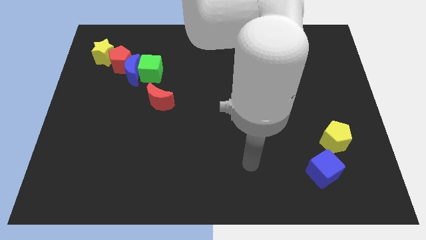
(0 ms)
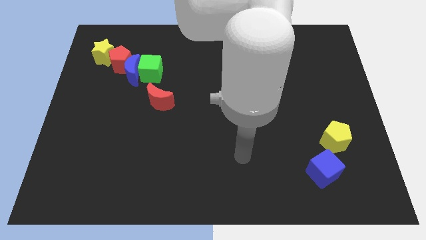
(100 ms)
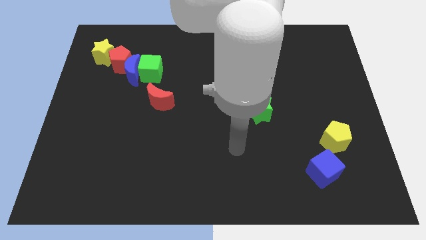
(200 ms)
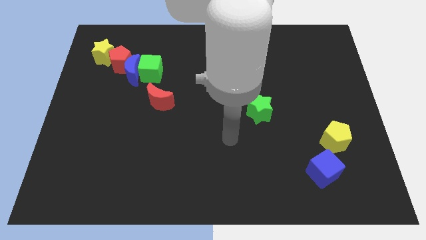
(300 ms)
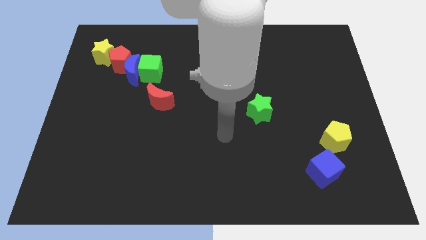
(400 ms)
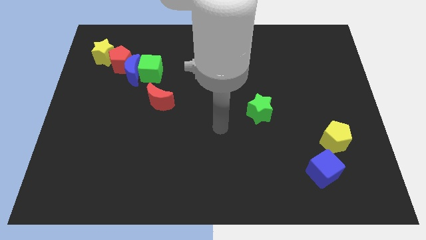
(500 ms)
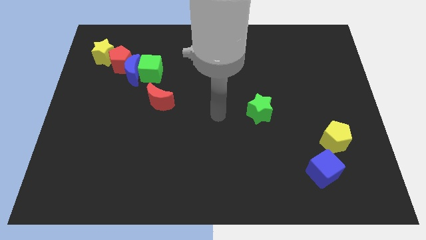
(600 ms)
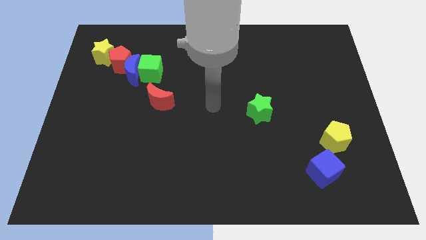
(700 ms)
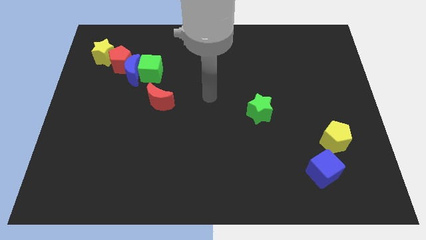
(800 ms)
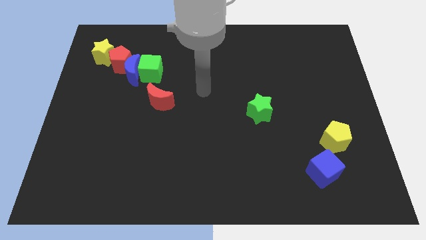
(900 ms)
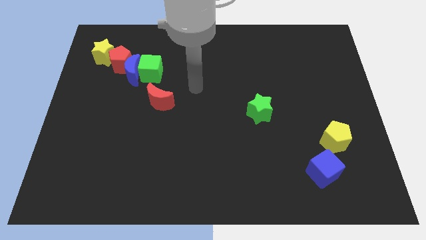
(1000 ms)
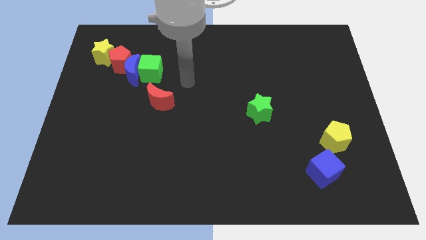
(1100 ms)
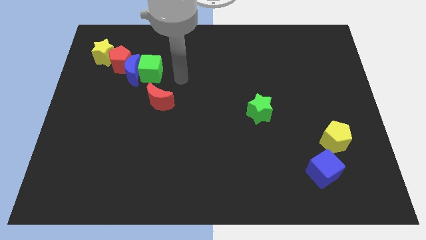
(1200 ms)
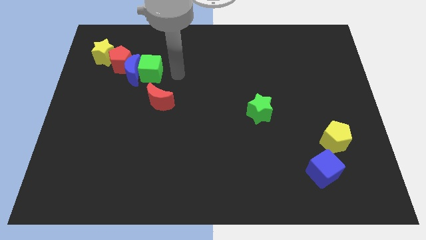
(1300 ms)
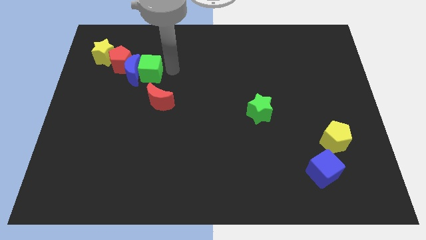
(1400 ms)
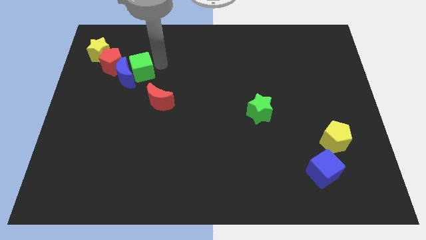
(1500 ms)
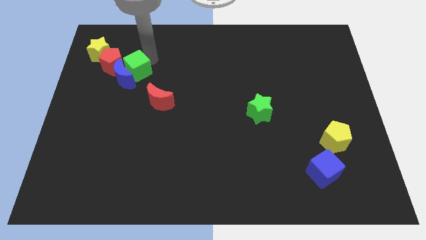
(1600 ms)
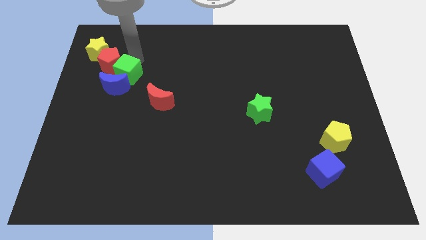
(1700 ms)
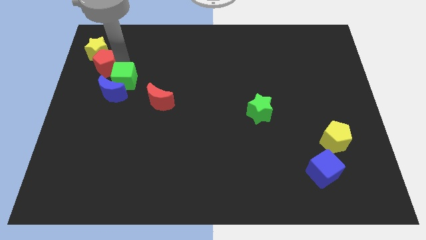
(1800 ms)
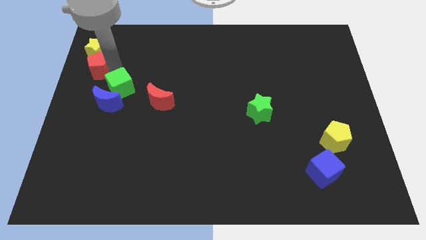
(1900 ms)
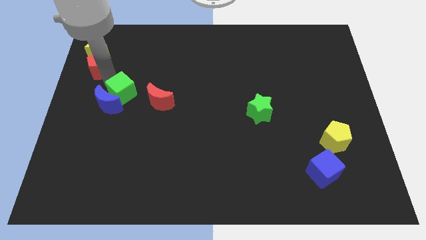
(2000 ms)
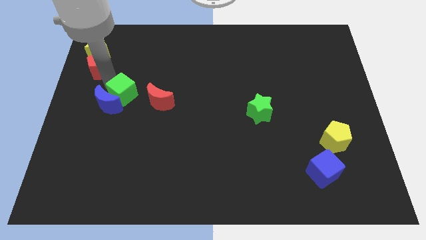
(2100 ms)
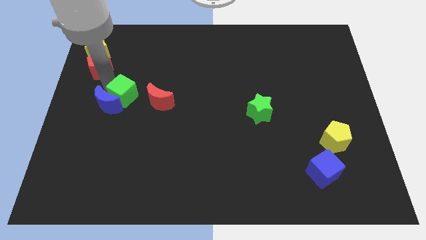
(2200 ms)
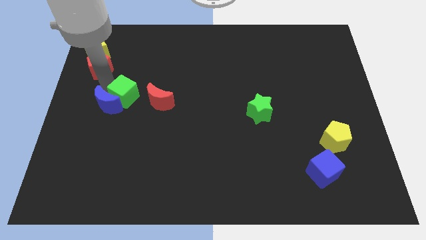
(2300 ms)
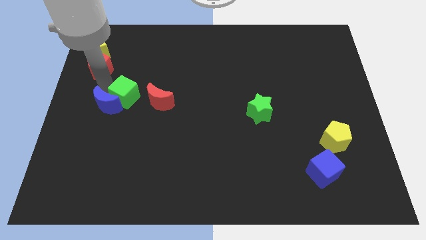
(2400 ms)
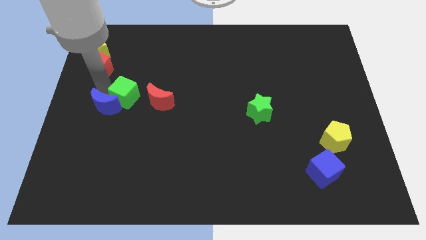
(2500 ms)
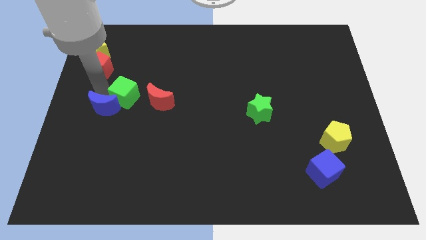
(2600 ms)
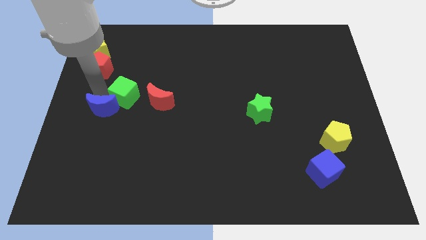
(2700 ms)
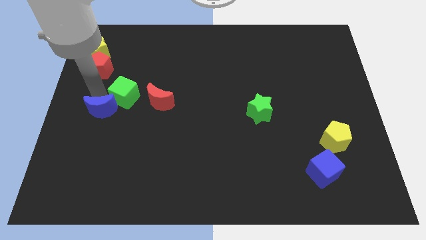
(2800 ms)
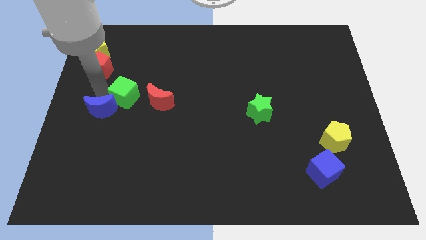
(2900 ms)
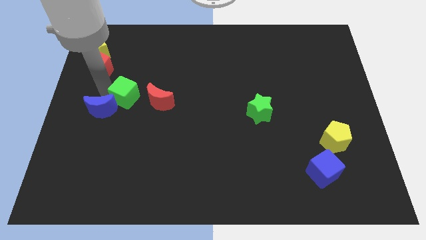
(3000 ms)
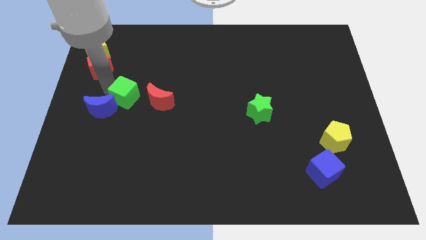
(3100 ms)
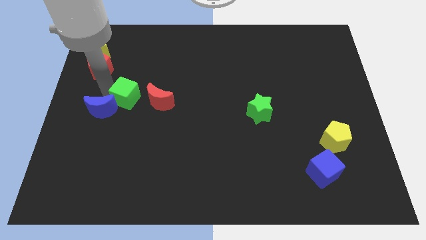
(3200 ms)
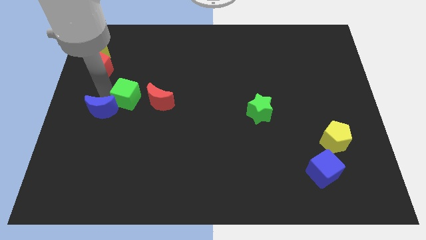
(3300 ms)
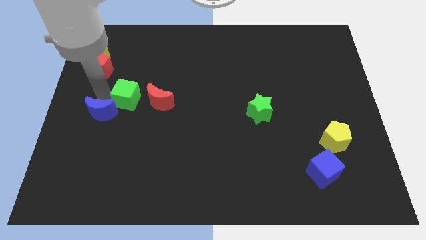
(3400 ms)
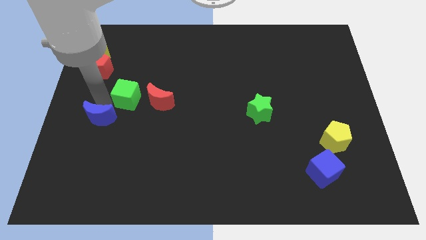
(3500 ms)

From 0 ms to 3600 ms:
pull the blue moon apart from the green cube and red pentagon

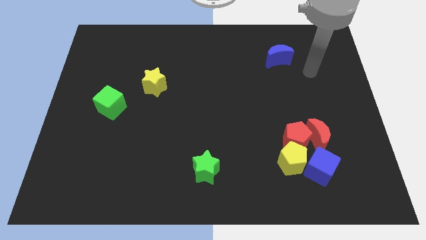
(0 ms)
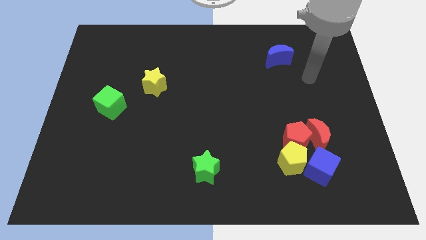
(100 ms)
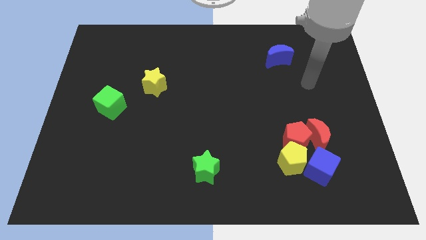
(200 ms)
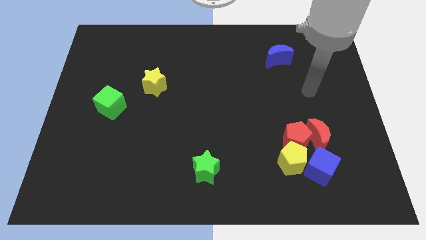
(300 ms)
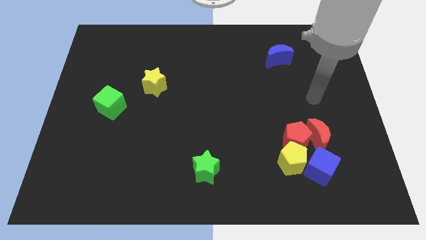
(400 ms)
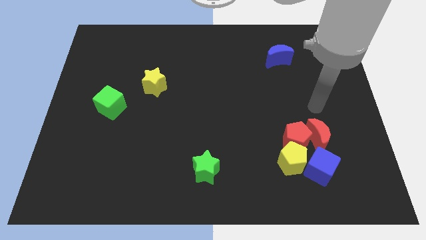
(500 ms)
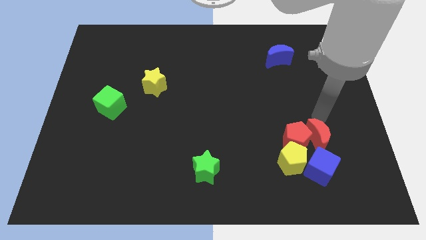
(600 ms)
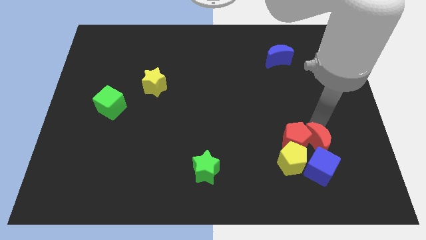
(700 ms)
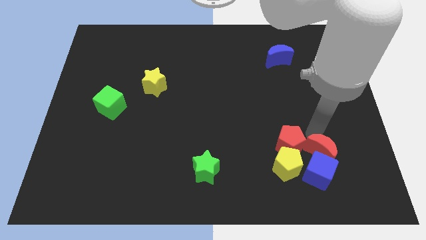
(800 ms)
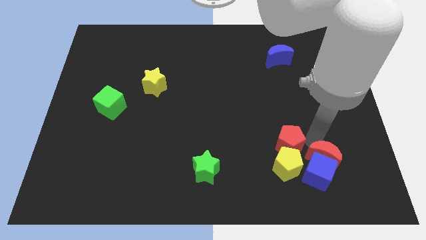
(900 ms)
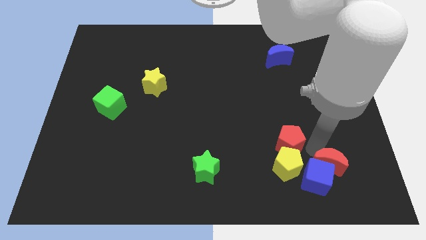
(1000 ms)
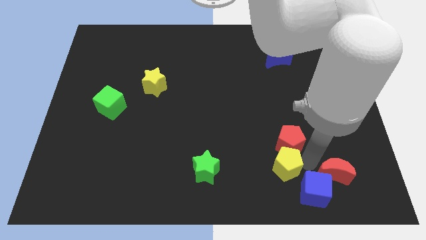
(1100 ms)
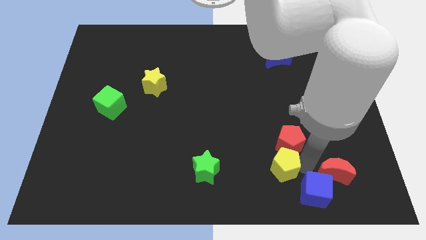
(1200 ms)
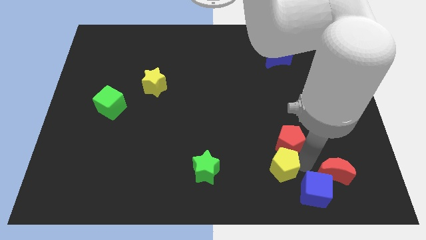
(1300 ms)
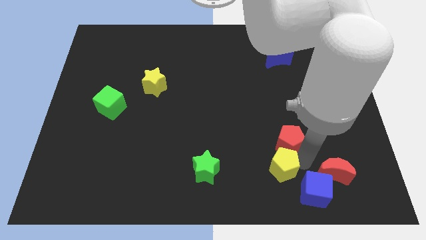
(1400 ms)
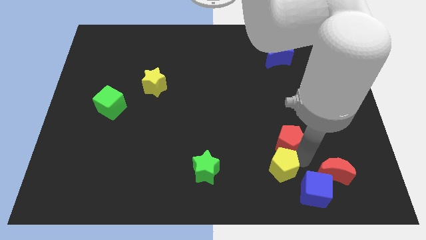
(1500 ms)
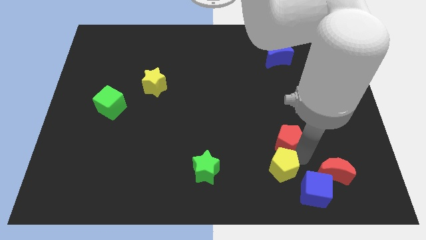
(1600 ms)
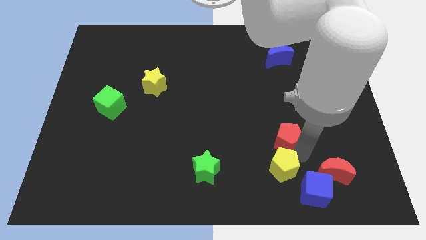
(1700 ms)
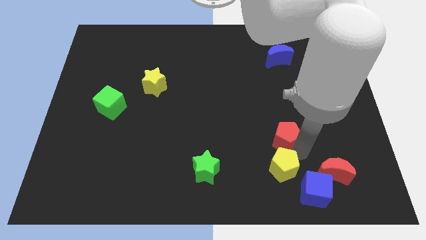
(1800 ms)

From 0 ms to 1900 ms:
pull the red pentagon apart from the red moon, yellow pentagon, and blue cube

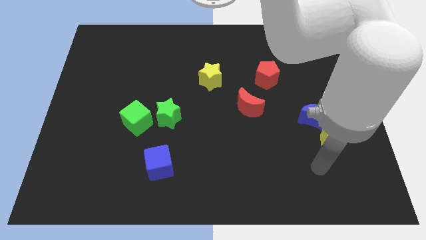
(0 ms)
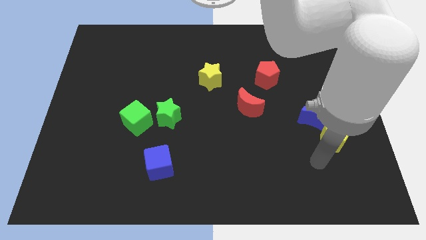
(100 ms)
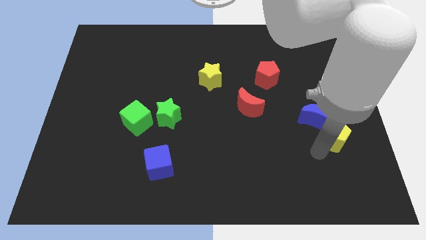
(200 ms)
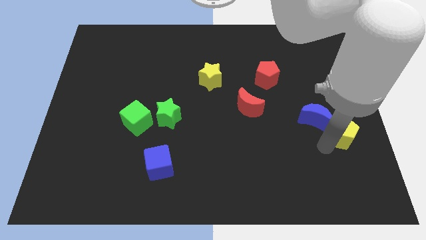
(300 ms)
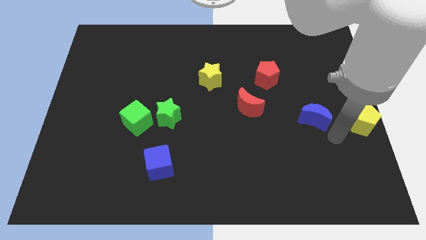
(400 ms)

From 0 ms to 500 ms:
separate the blue moon from the yellow pentagon

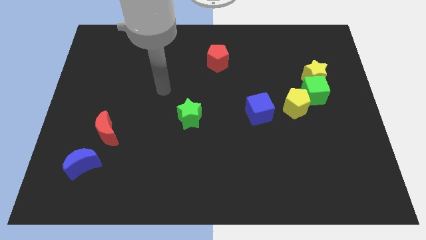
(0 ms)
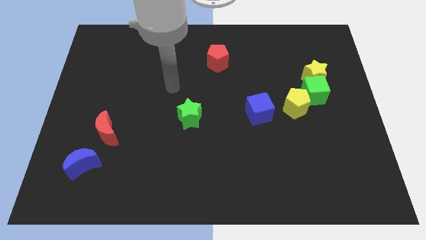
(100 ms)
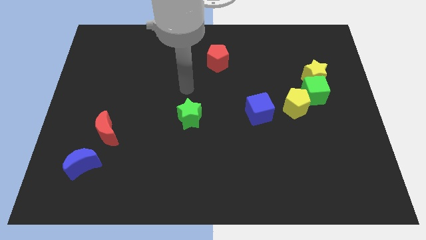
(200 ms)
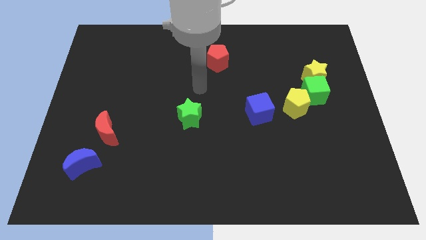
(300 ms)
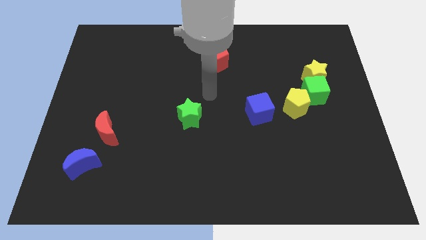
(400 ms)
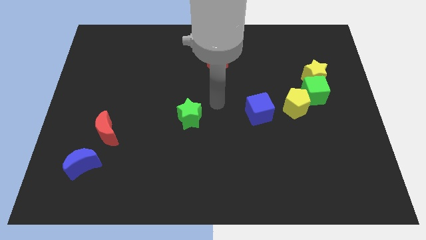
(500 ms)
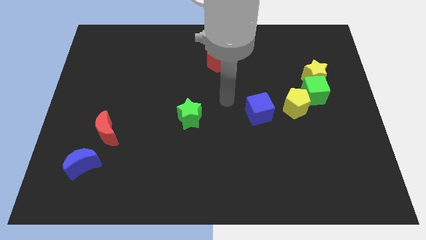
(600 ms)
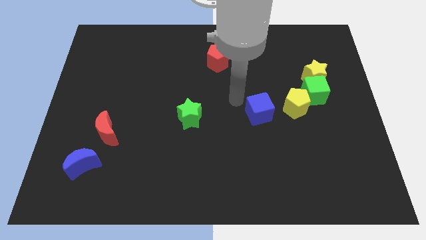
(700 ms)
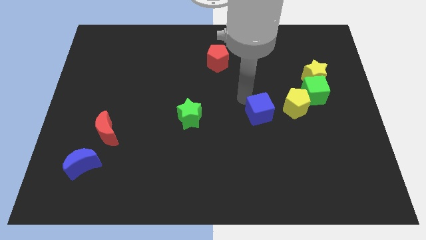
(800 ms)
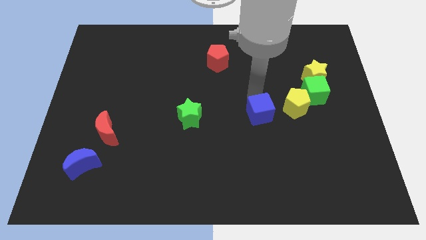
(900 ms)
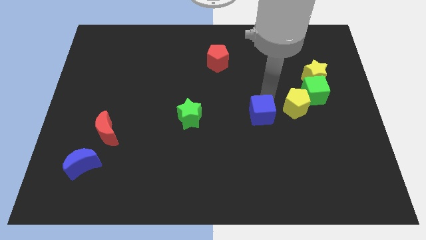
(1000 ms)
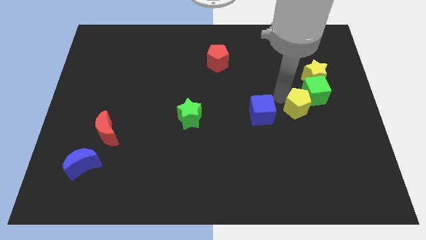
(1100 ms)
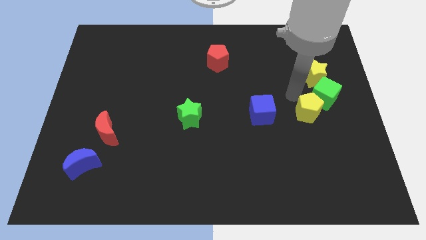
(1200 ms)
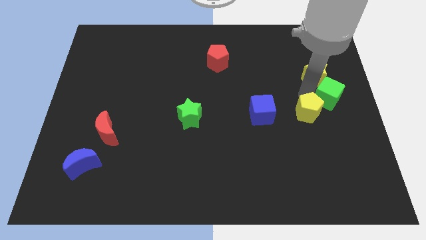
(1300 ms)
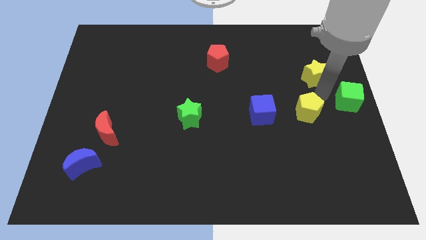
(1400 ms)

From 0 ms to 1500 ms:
separate the yellow star from the green cube

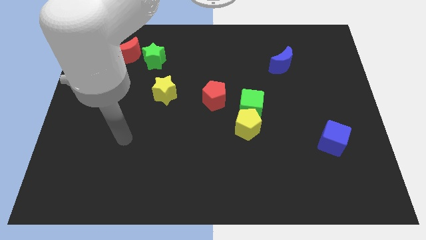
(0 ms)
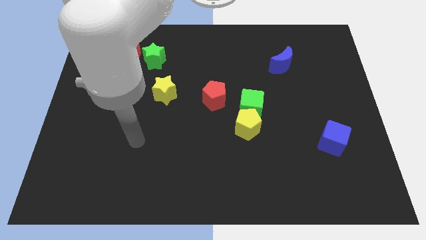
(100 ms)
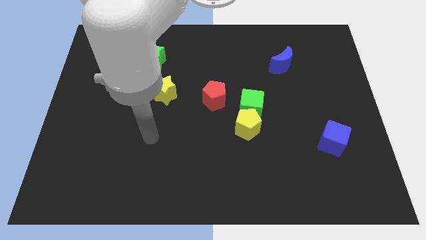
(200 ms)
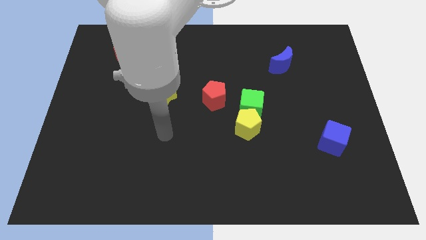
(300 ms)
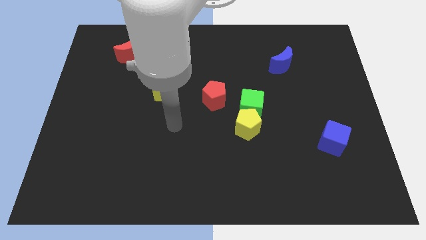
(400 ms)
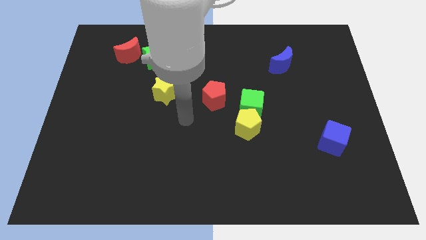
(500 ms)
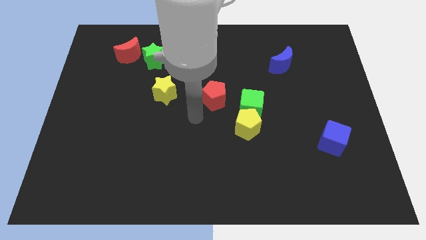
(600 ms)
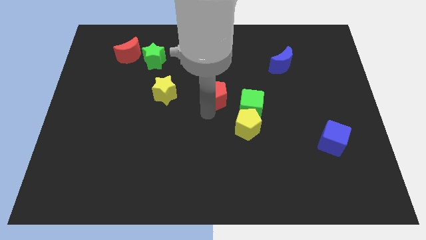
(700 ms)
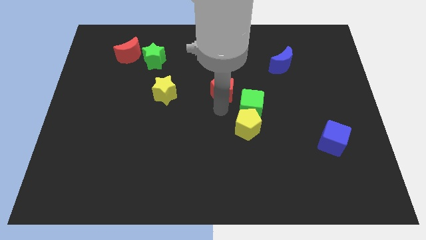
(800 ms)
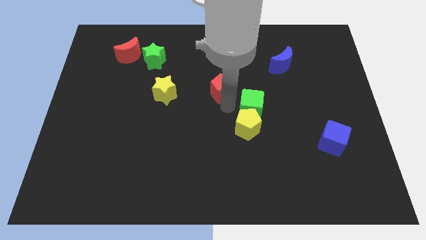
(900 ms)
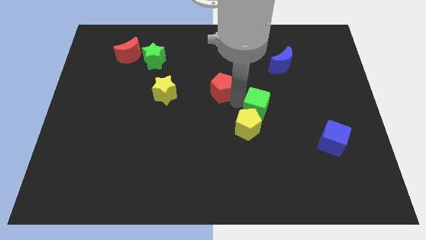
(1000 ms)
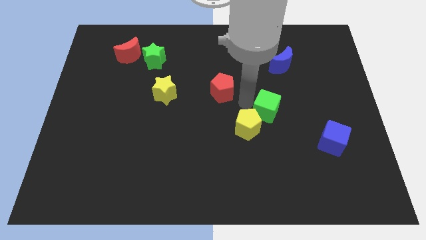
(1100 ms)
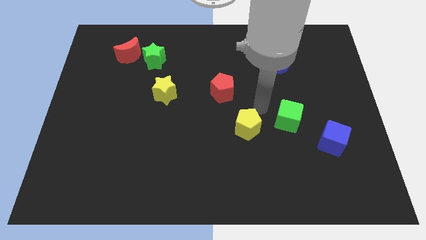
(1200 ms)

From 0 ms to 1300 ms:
separate the yellow pentagon from the green cube

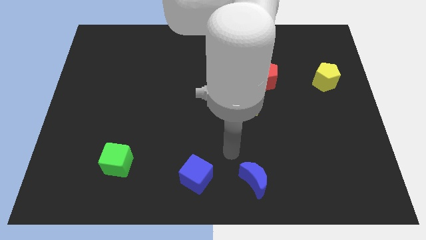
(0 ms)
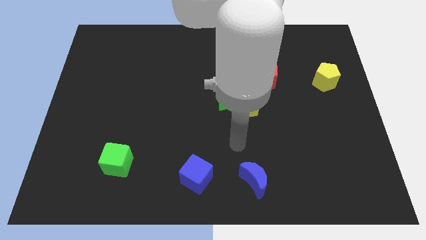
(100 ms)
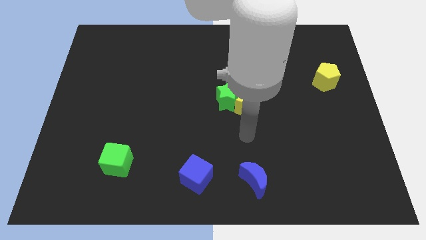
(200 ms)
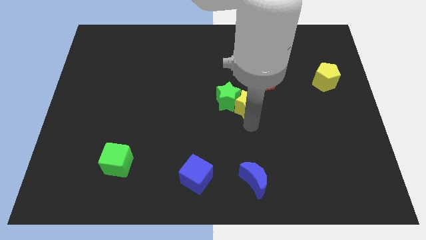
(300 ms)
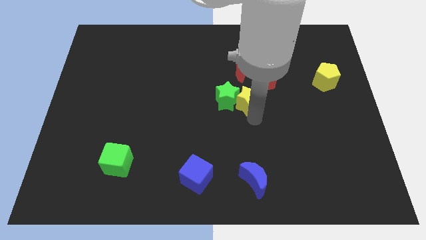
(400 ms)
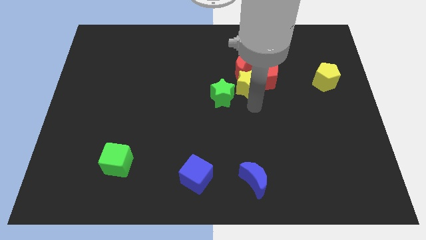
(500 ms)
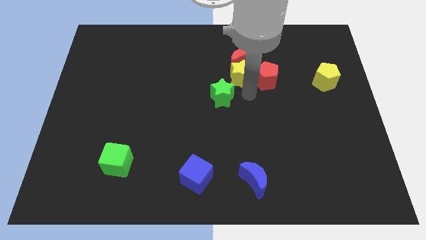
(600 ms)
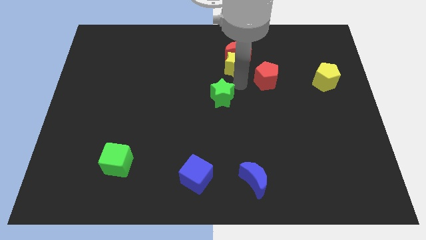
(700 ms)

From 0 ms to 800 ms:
pull the green star apart from the yellow star
